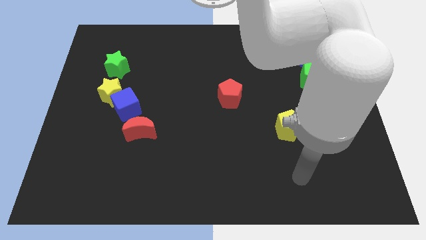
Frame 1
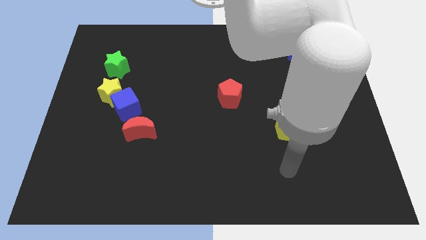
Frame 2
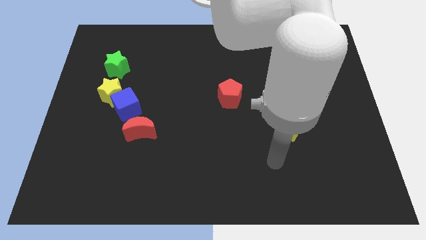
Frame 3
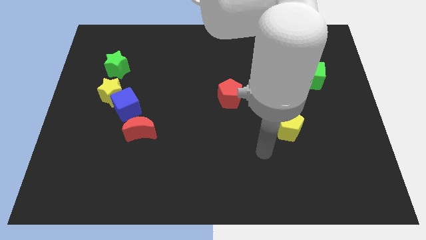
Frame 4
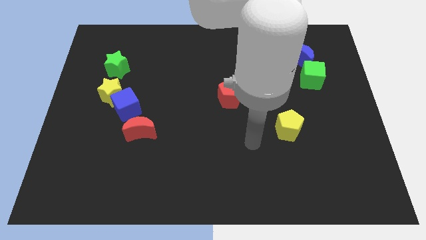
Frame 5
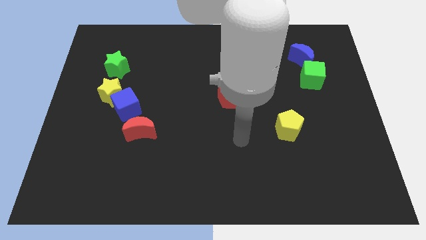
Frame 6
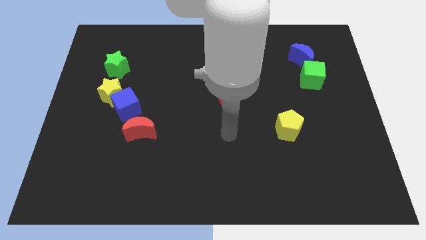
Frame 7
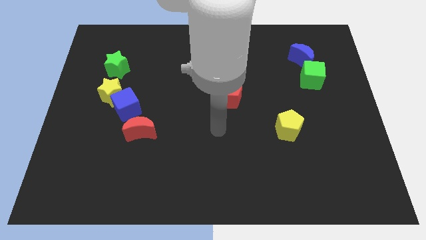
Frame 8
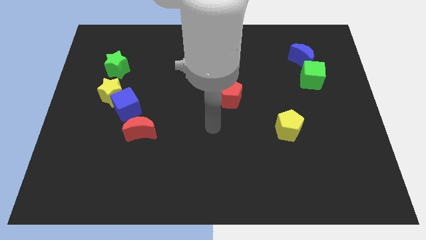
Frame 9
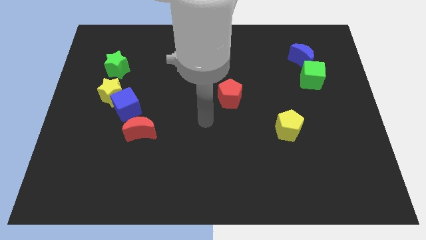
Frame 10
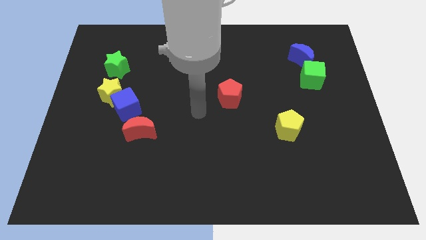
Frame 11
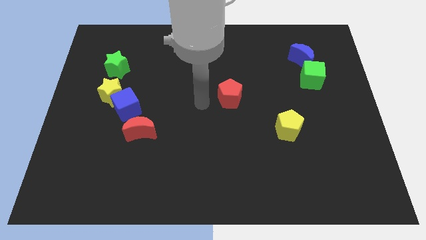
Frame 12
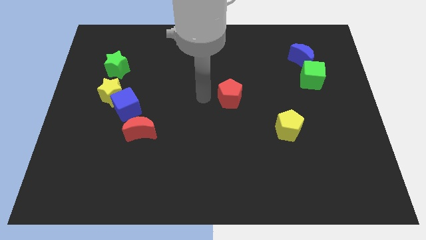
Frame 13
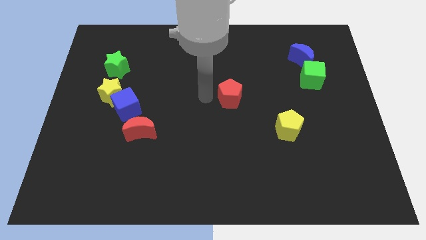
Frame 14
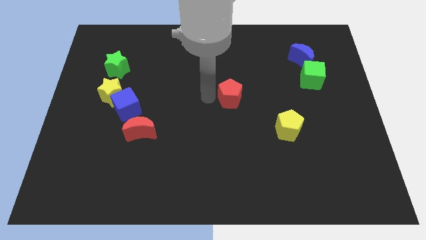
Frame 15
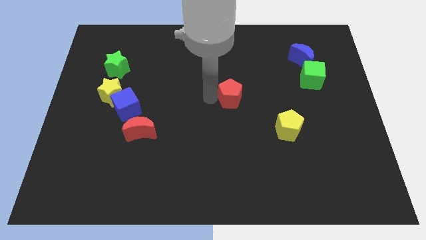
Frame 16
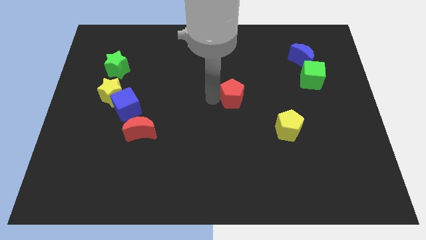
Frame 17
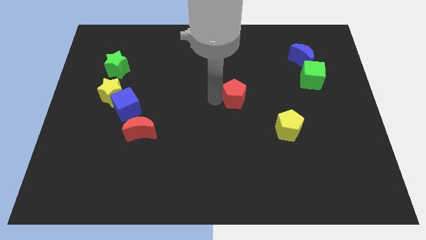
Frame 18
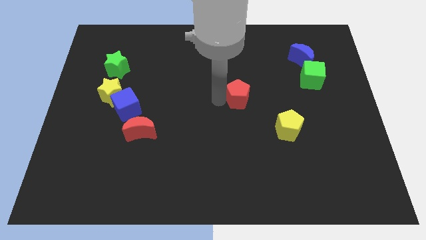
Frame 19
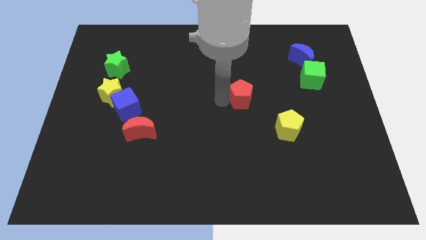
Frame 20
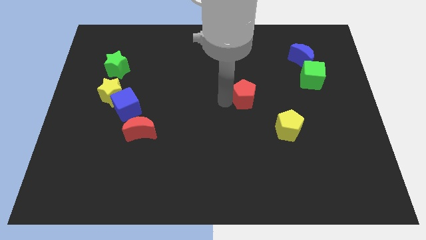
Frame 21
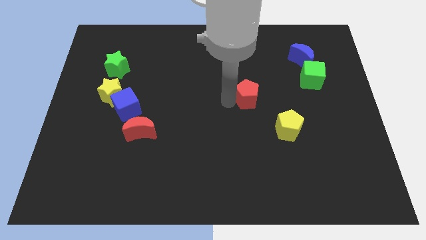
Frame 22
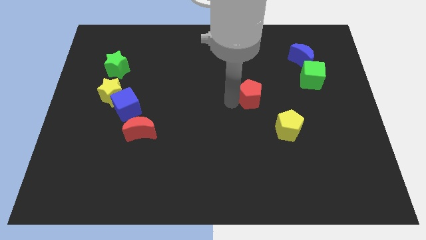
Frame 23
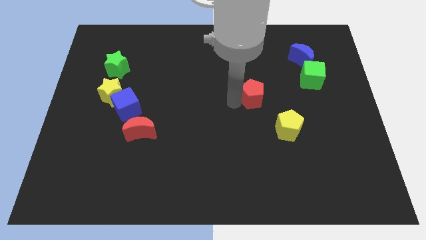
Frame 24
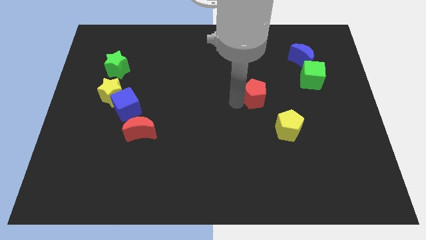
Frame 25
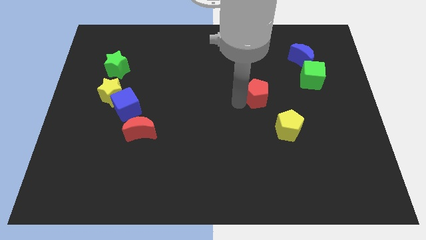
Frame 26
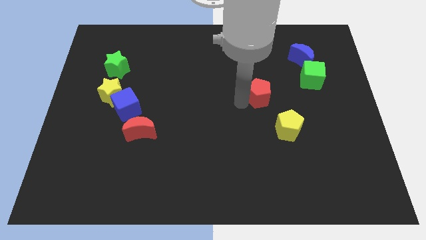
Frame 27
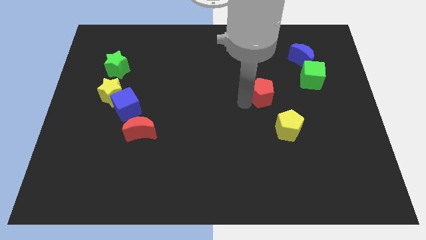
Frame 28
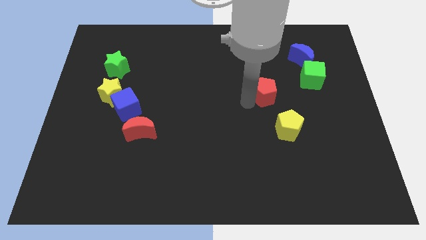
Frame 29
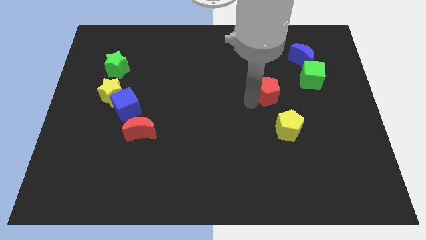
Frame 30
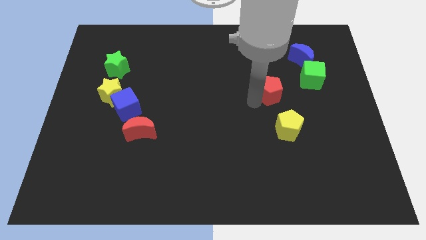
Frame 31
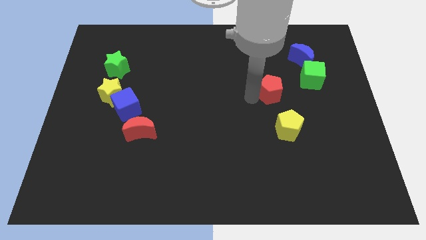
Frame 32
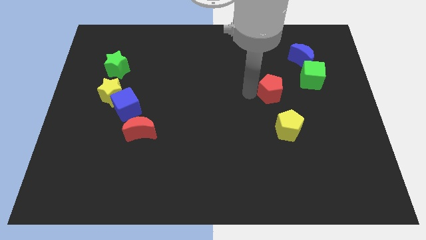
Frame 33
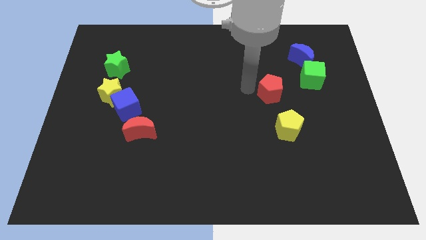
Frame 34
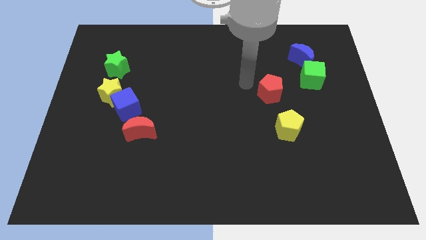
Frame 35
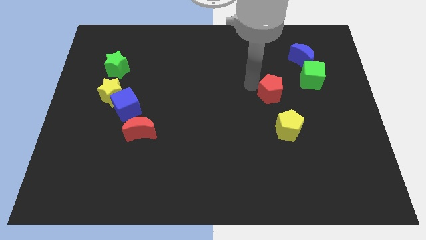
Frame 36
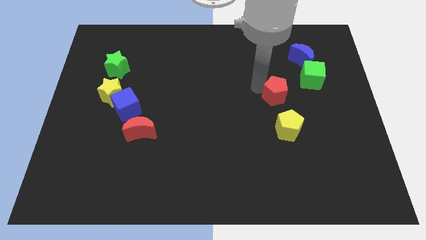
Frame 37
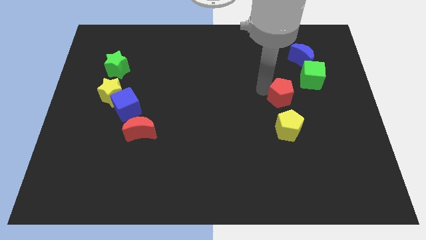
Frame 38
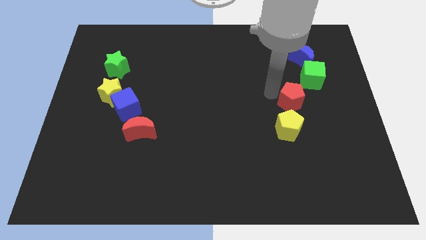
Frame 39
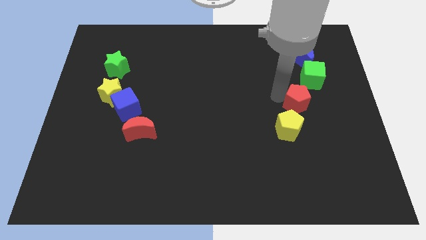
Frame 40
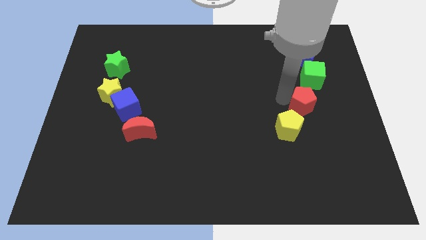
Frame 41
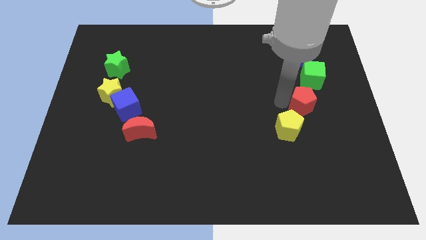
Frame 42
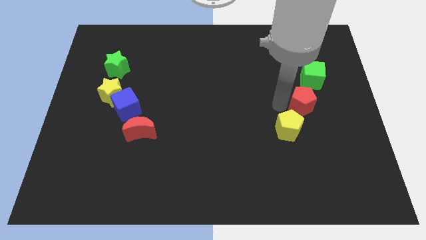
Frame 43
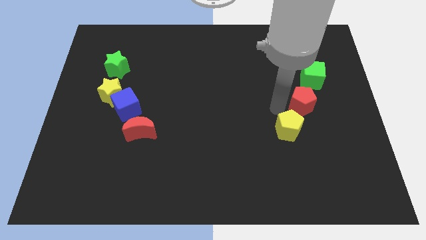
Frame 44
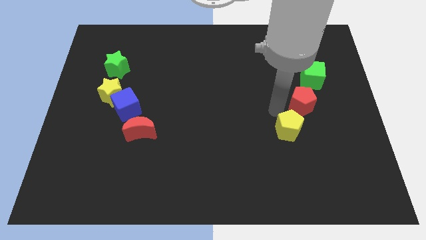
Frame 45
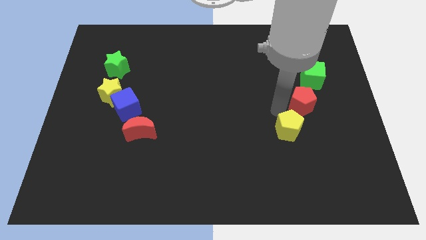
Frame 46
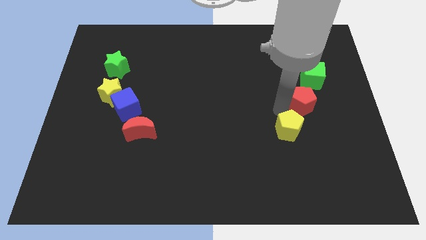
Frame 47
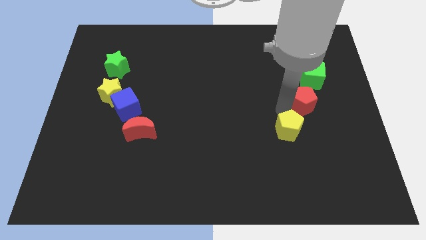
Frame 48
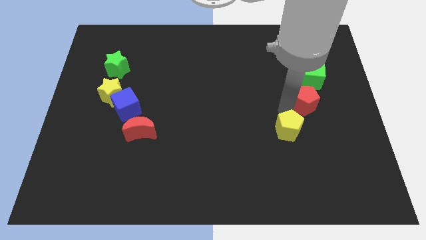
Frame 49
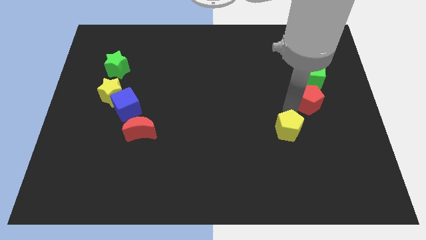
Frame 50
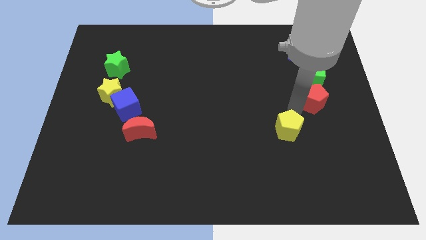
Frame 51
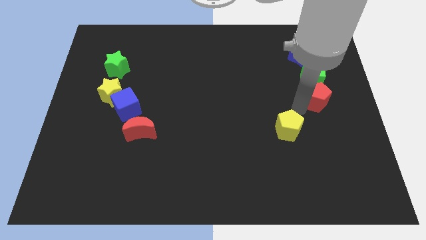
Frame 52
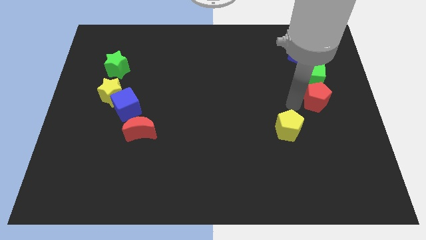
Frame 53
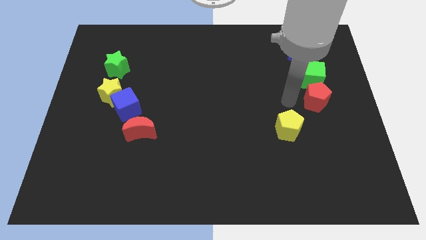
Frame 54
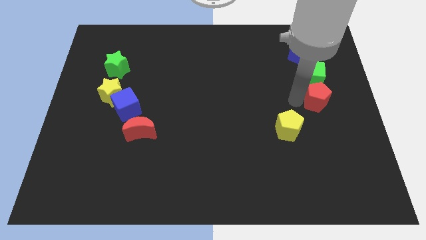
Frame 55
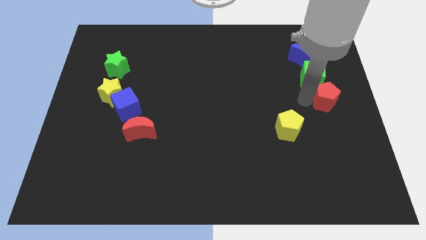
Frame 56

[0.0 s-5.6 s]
push the red pentagon to the center right

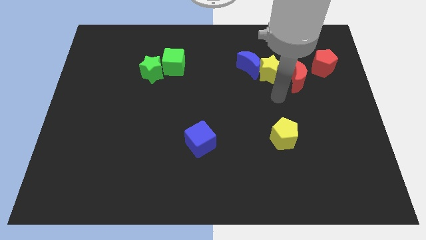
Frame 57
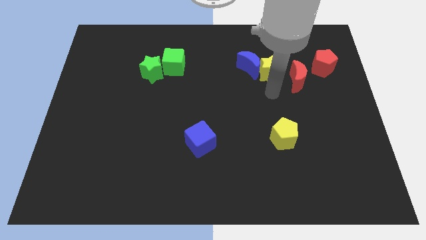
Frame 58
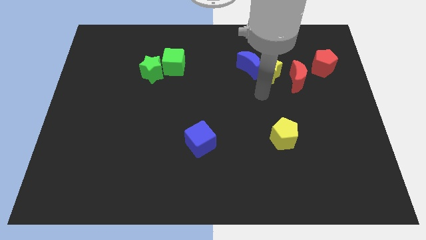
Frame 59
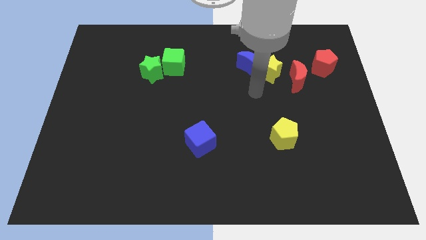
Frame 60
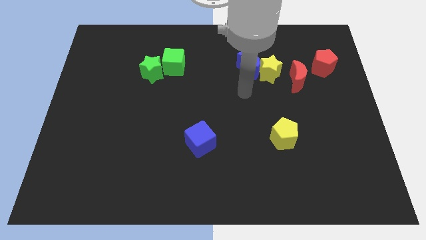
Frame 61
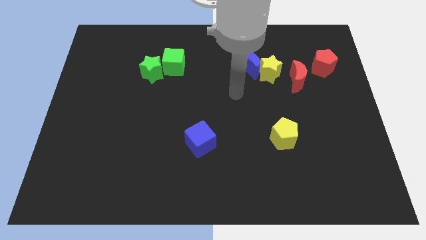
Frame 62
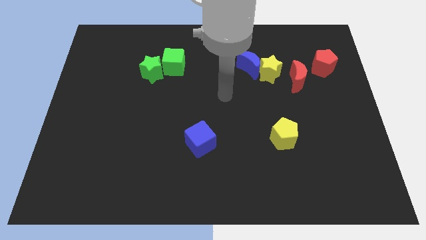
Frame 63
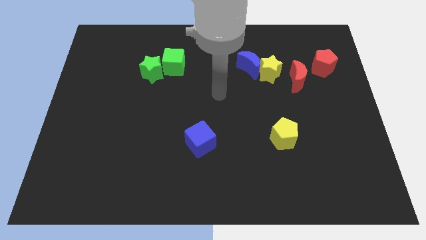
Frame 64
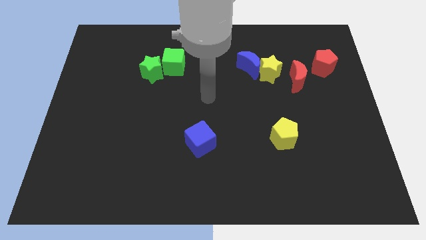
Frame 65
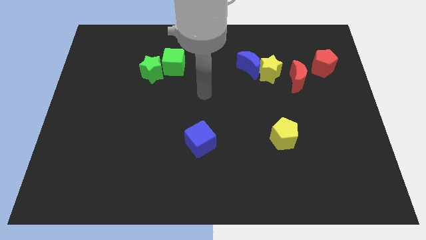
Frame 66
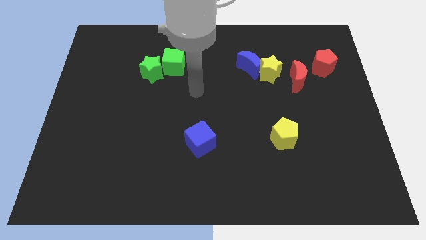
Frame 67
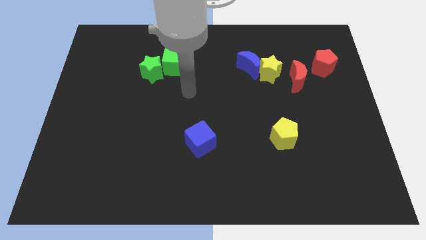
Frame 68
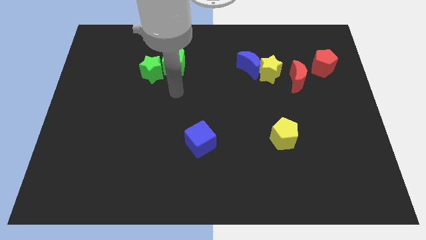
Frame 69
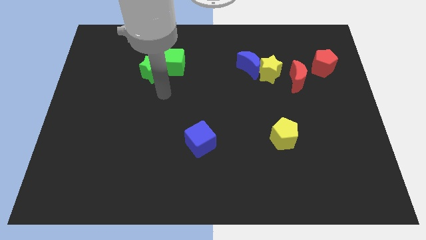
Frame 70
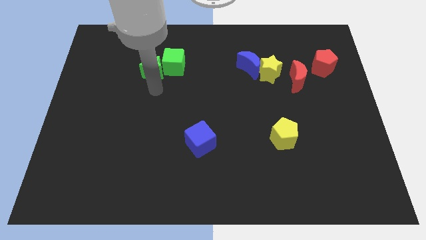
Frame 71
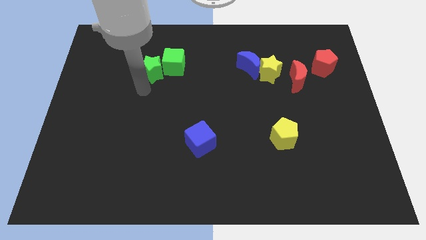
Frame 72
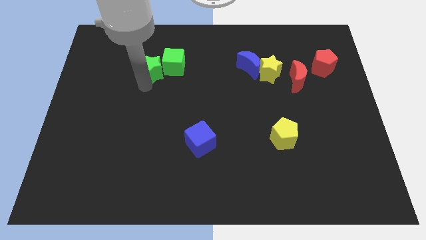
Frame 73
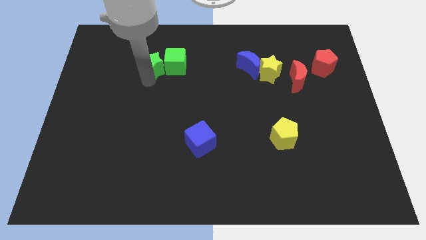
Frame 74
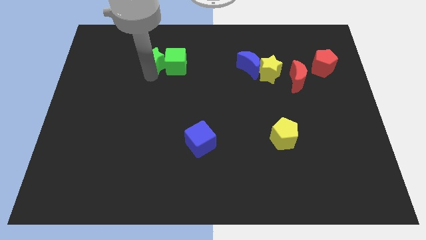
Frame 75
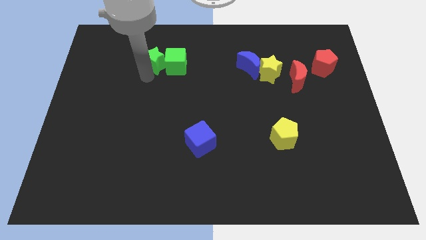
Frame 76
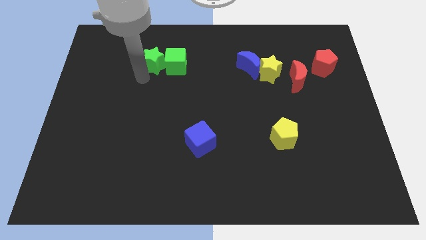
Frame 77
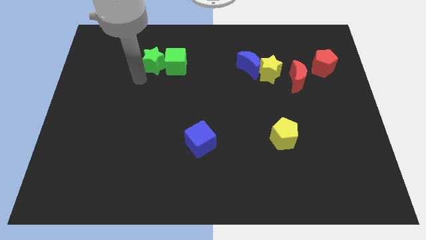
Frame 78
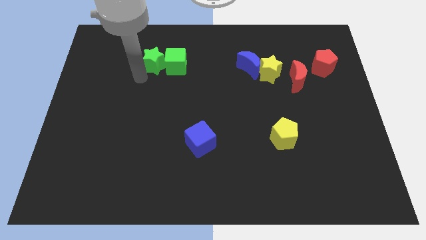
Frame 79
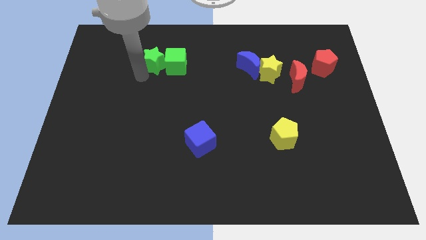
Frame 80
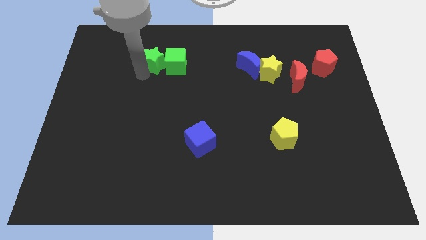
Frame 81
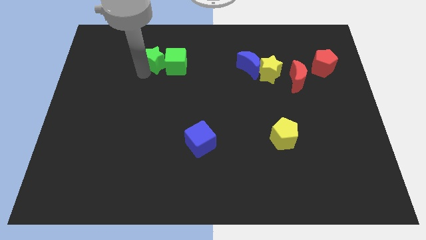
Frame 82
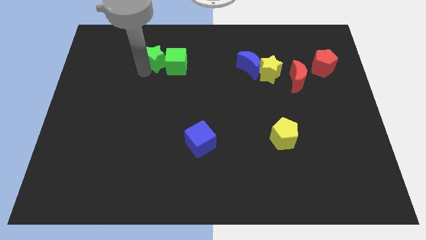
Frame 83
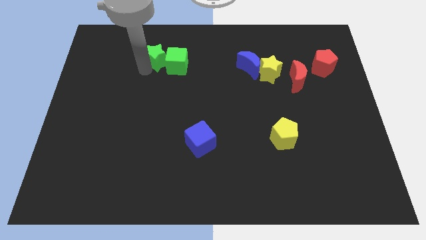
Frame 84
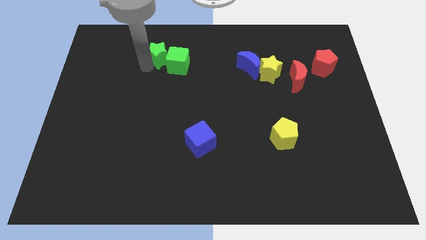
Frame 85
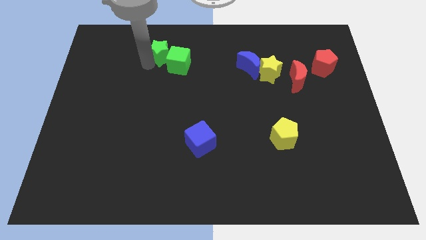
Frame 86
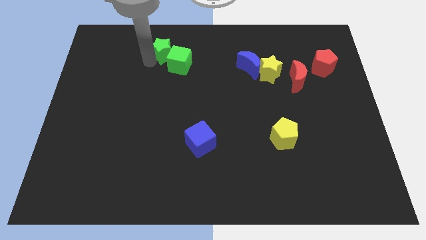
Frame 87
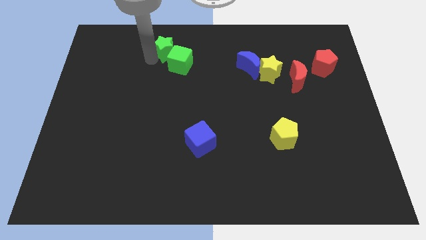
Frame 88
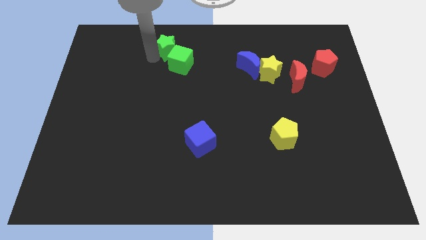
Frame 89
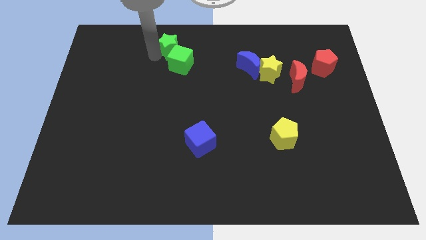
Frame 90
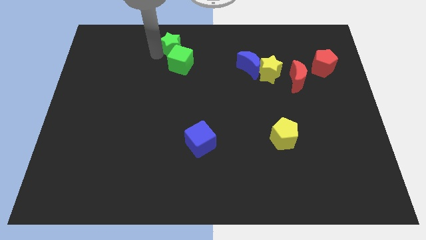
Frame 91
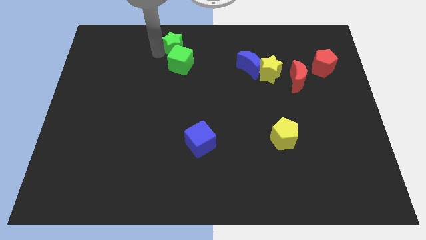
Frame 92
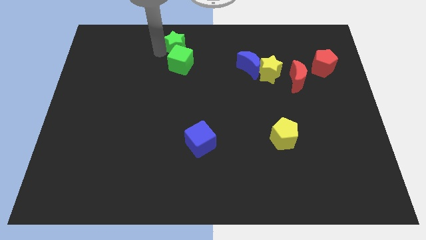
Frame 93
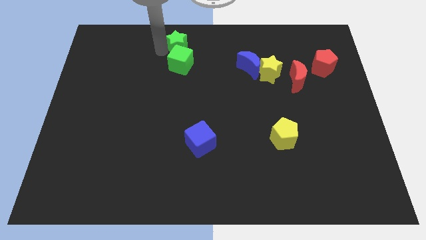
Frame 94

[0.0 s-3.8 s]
push the green star to the towards your base
